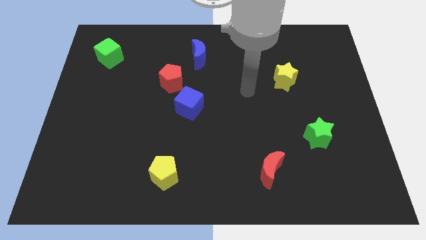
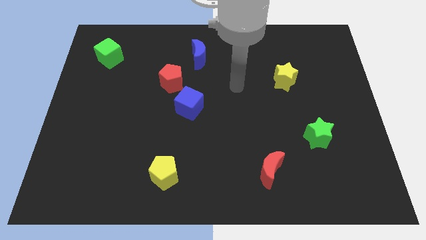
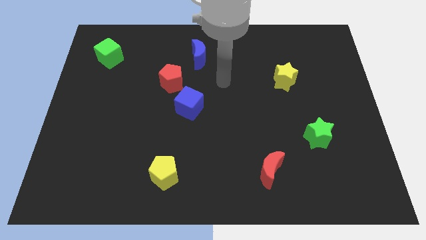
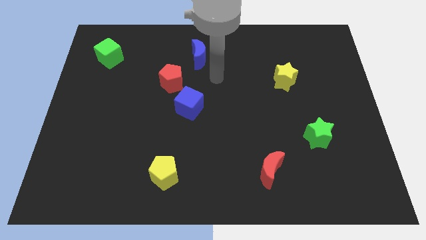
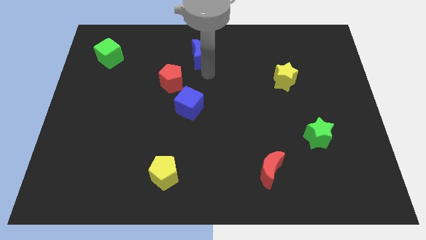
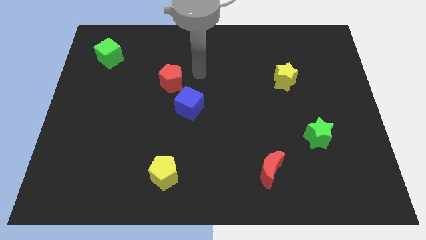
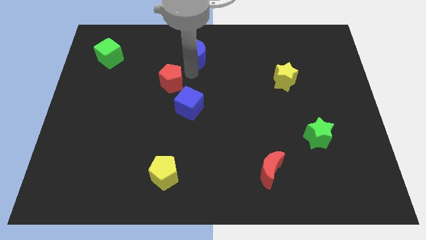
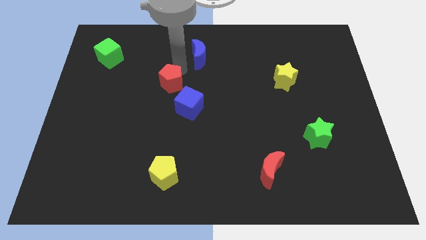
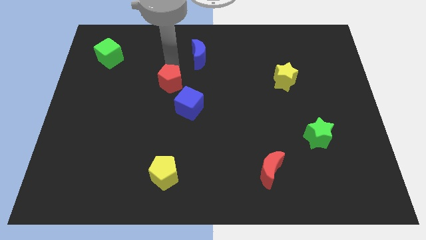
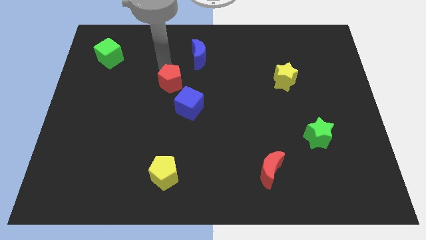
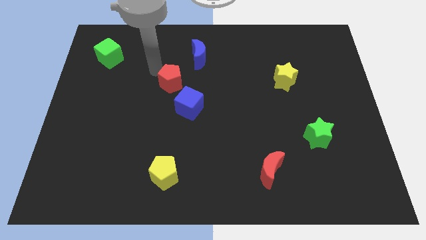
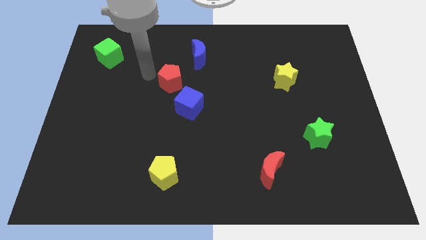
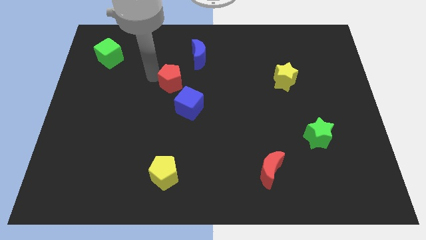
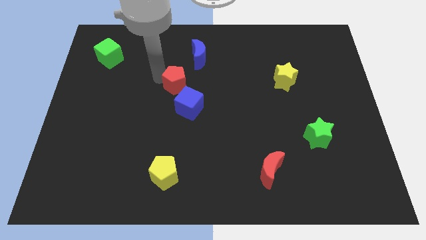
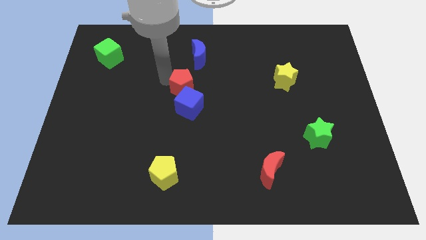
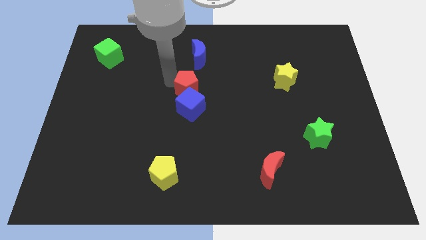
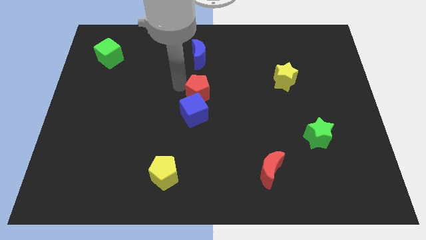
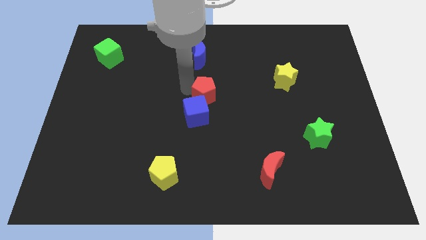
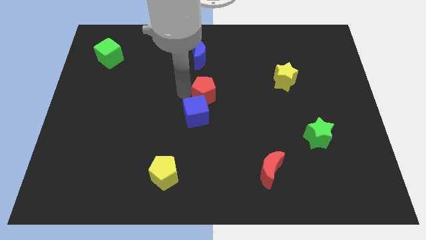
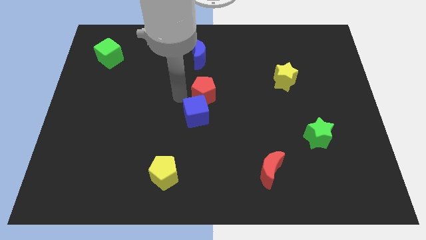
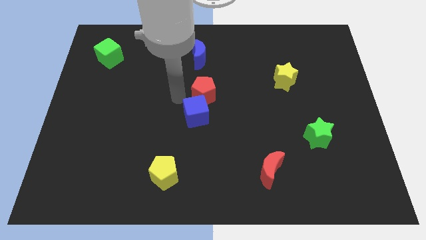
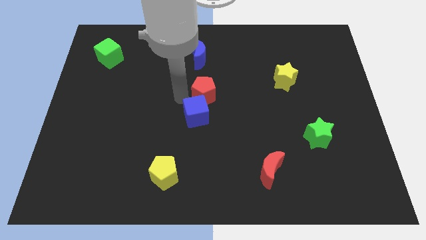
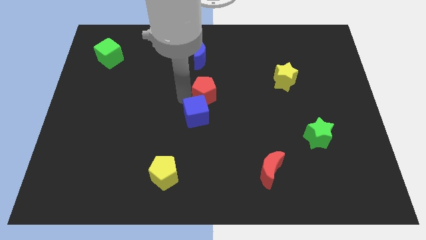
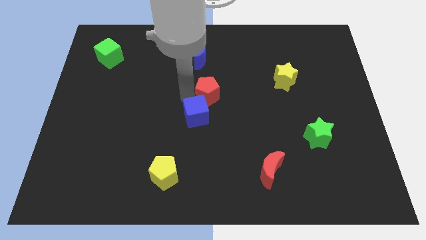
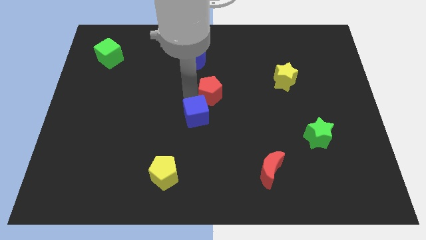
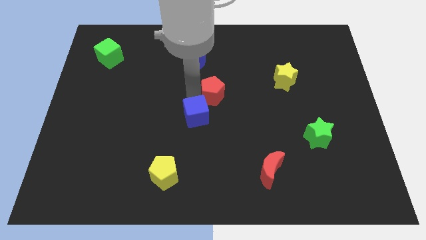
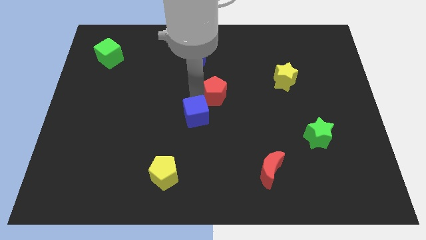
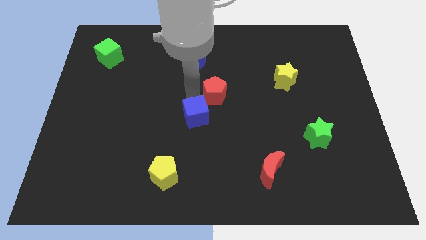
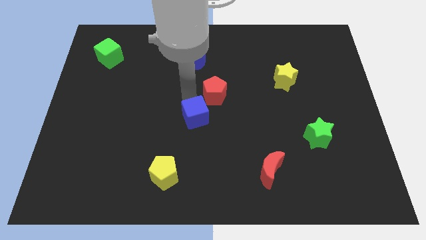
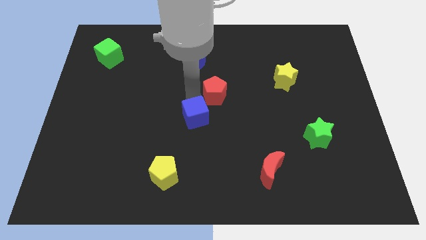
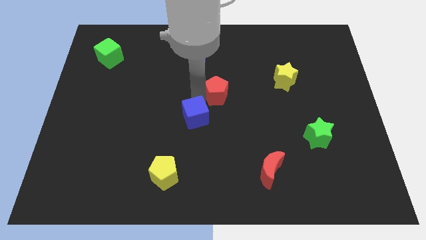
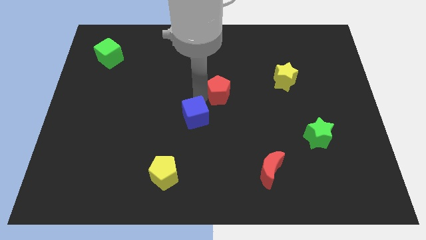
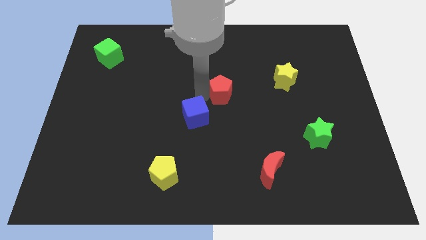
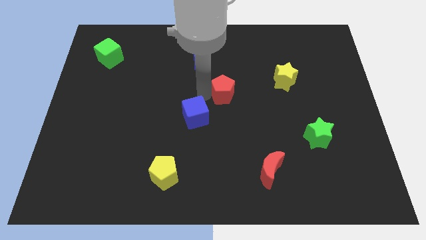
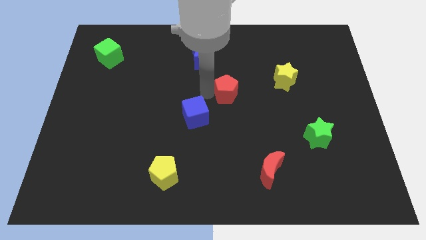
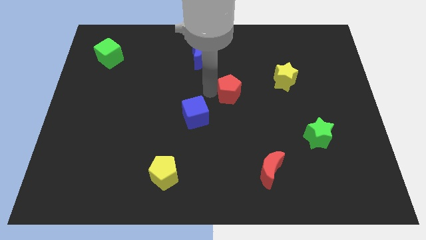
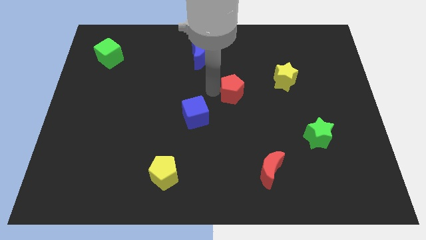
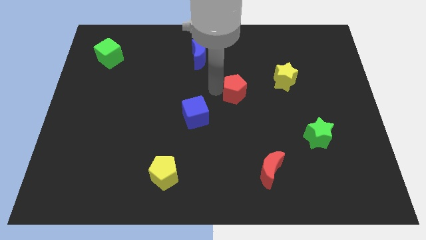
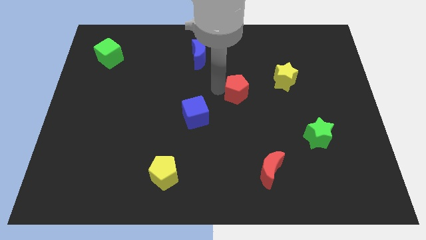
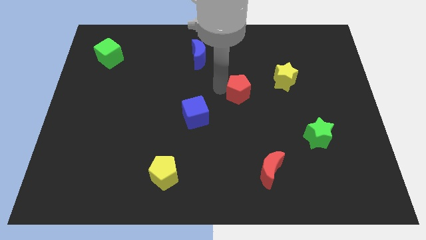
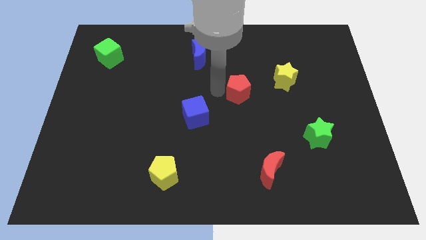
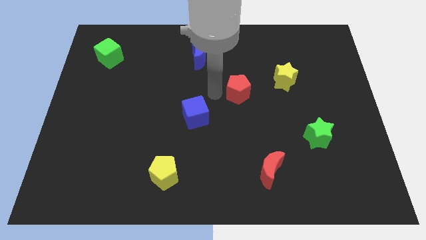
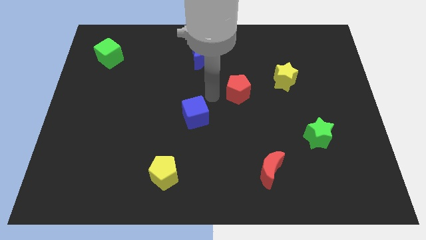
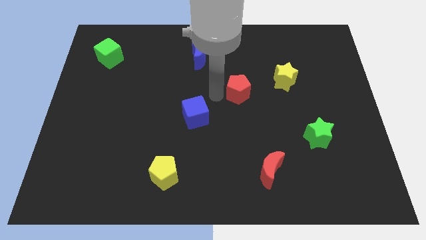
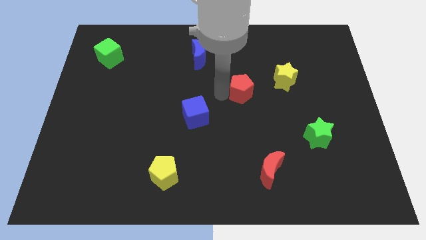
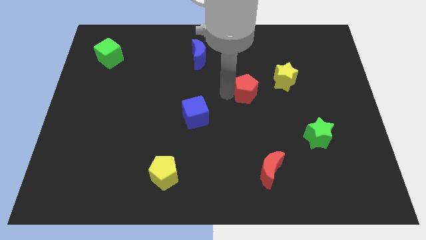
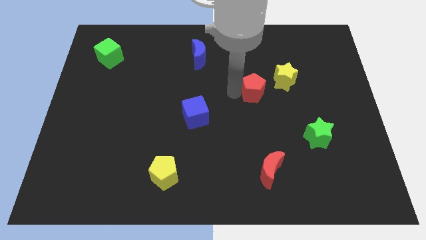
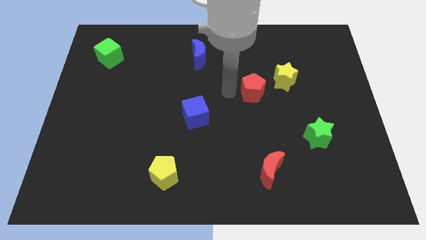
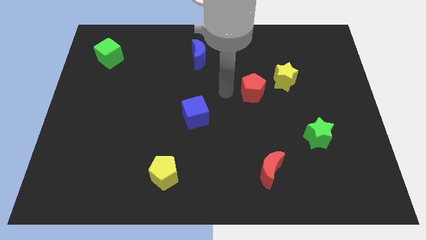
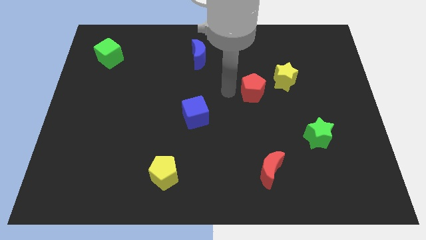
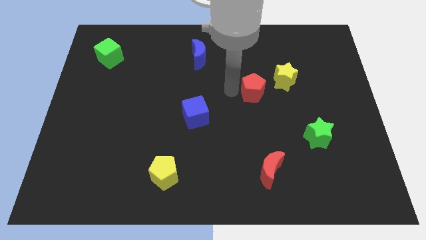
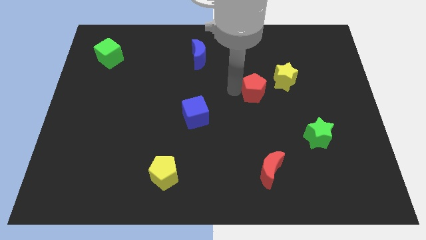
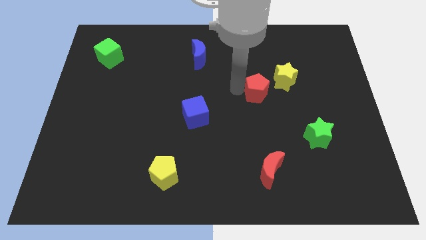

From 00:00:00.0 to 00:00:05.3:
slide the red pentagon right

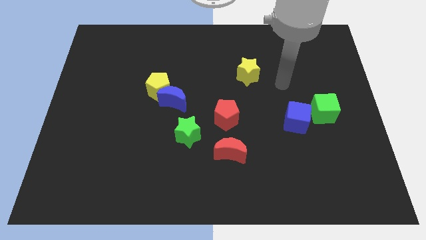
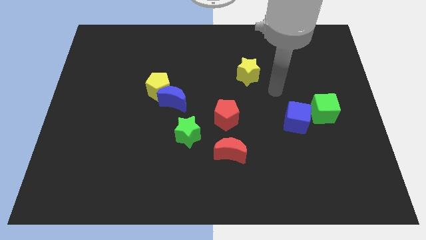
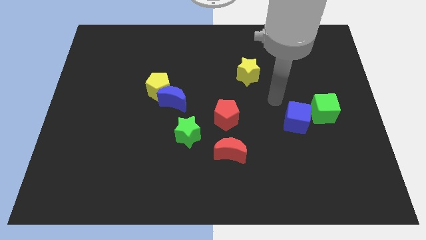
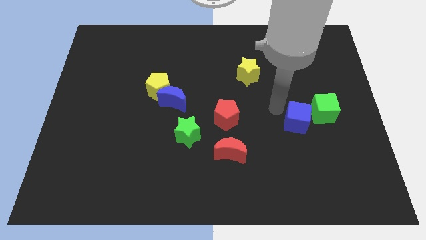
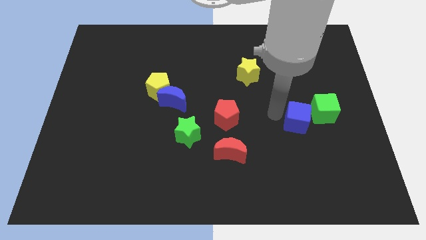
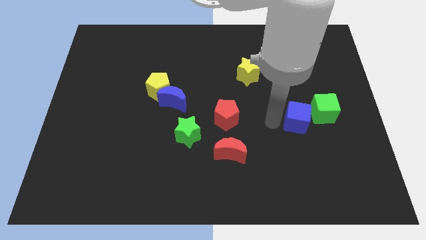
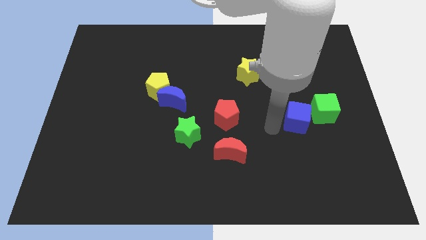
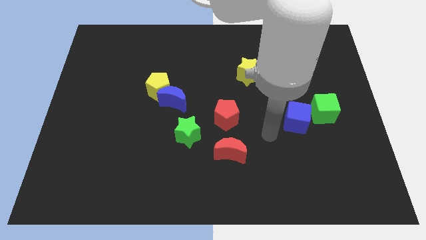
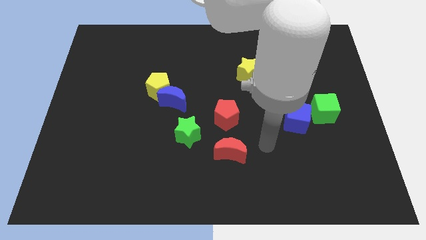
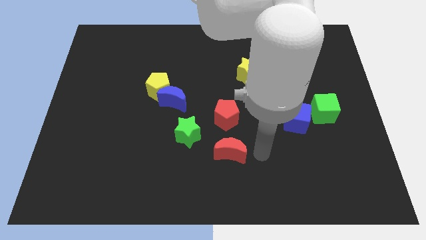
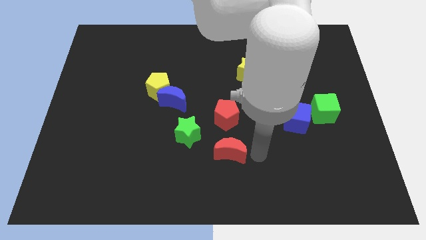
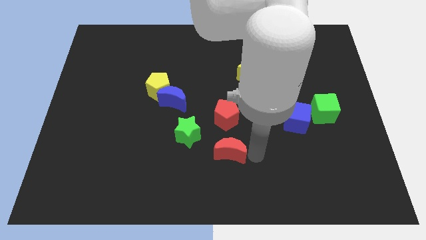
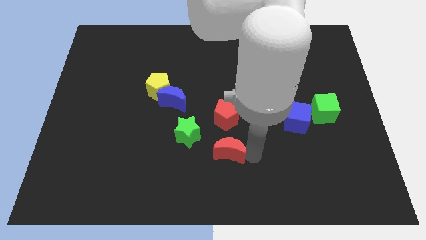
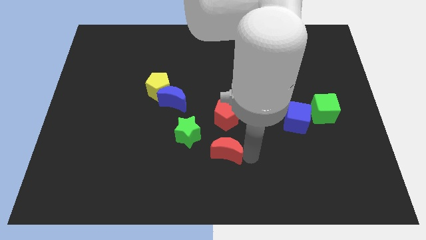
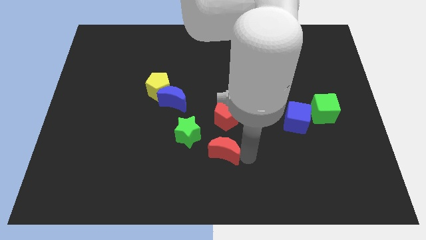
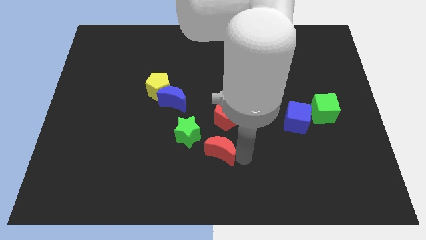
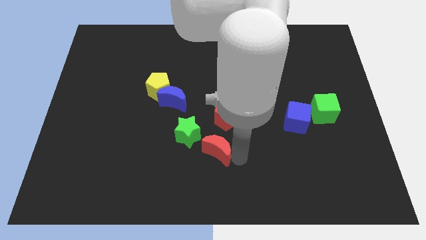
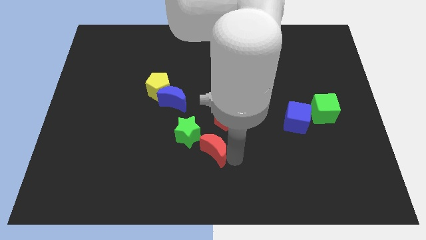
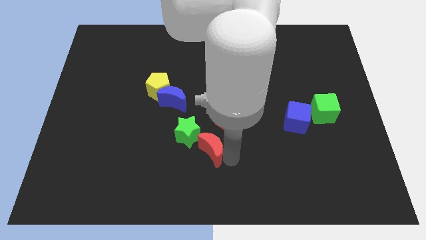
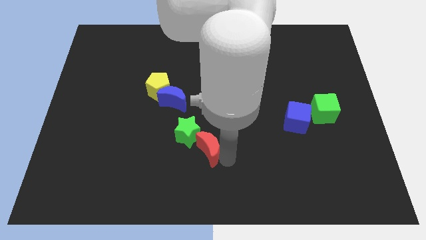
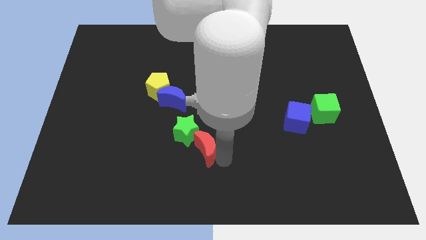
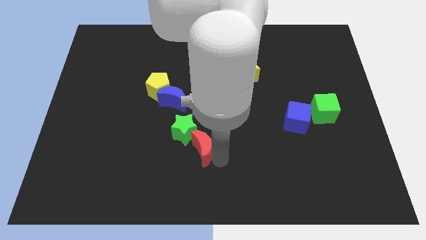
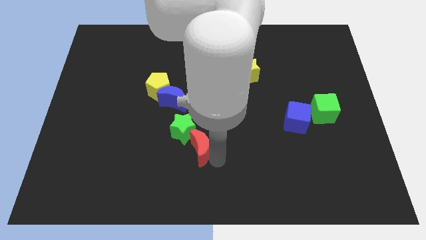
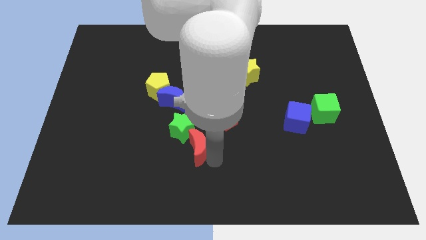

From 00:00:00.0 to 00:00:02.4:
move the red moon to the left a bit

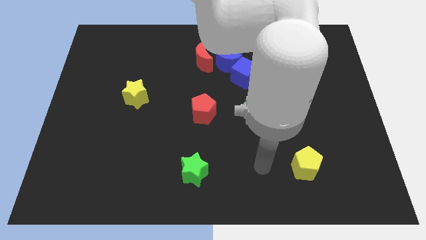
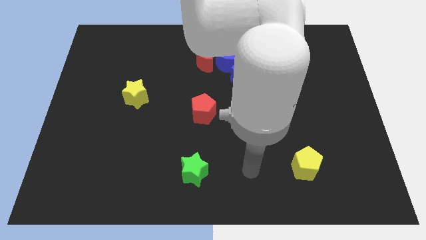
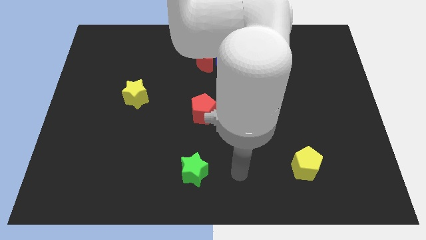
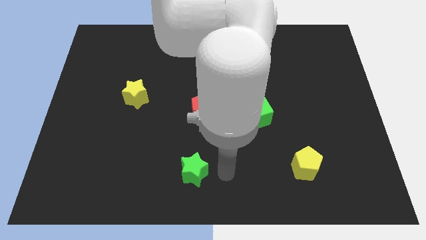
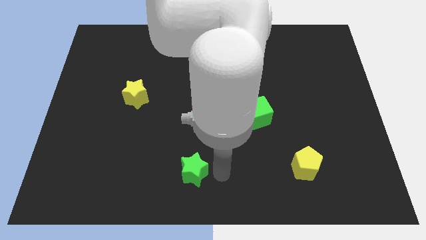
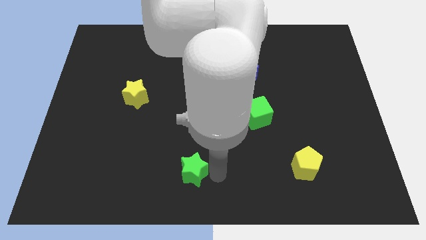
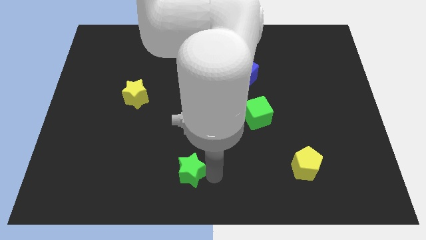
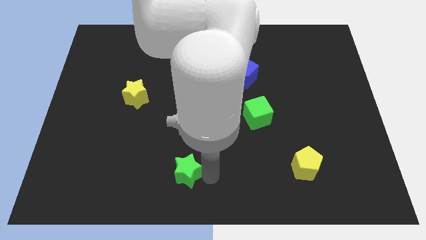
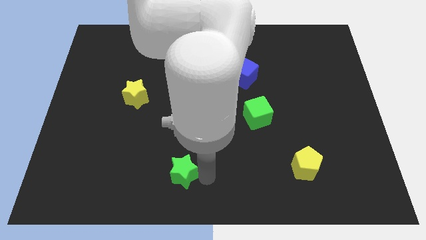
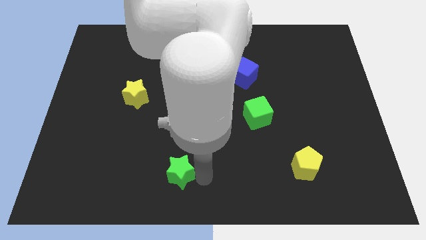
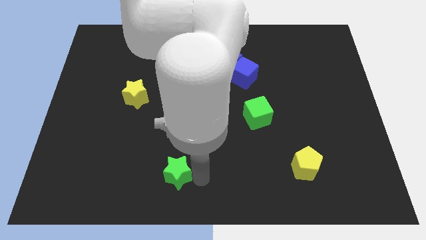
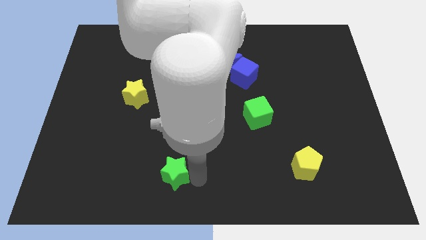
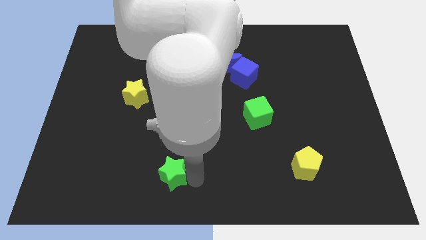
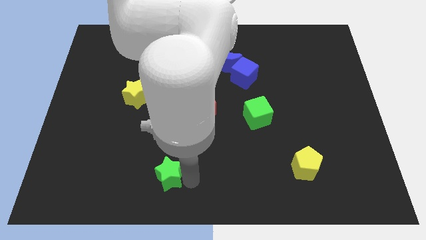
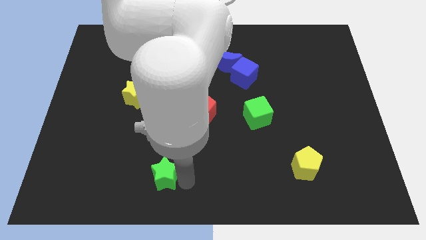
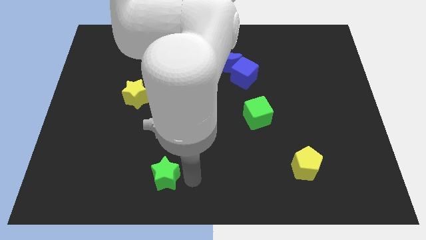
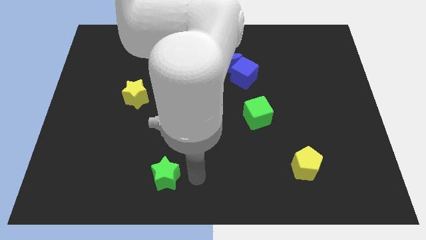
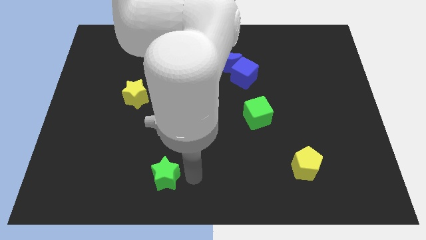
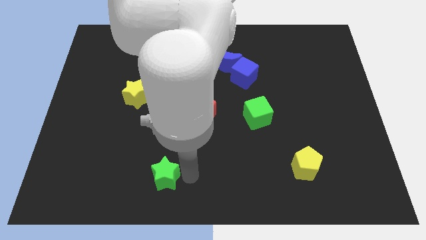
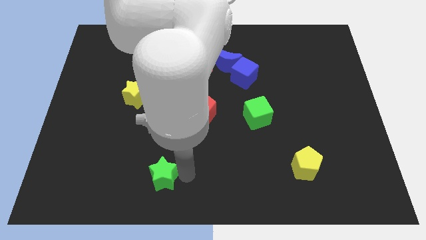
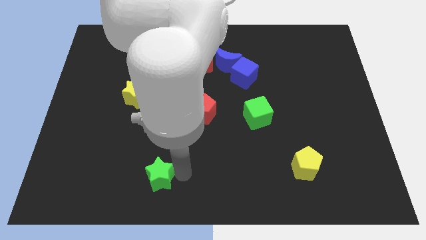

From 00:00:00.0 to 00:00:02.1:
move the green star somewhat to the left
